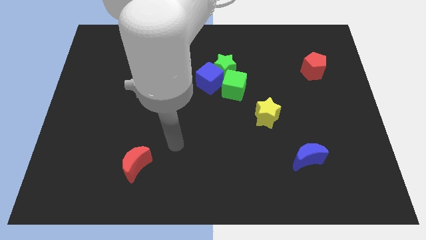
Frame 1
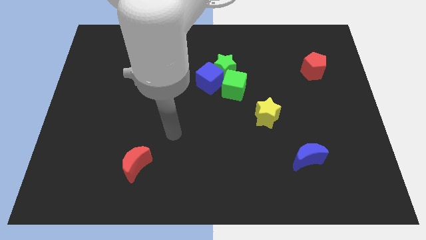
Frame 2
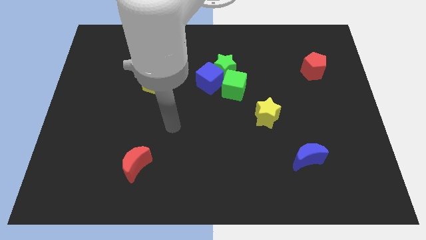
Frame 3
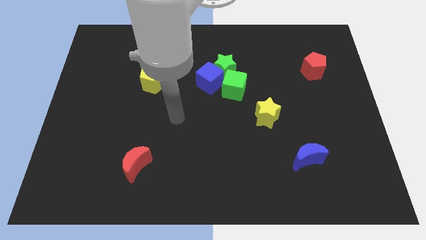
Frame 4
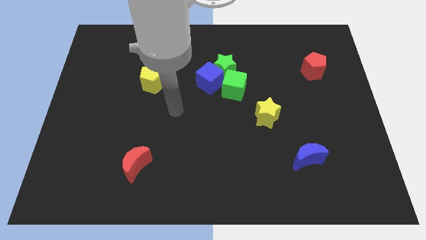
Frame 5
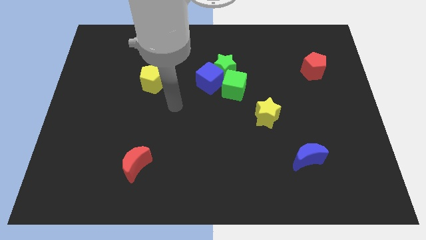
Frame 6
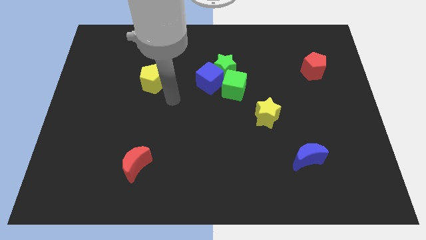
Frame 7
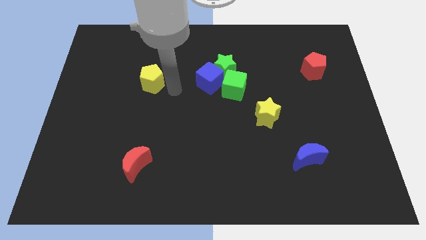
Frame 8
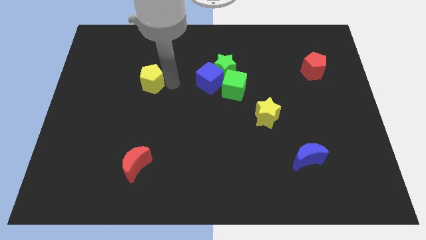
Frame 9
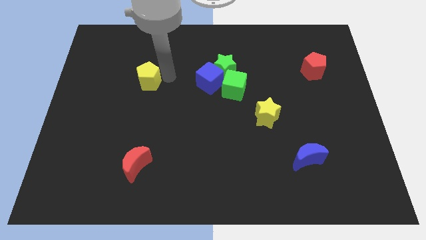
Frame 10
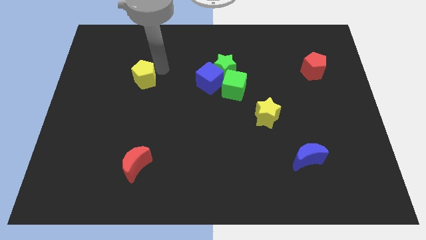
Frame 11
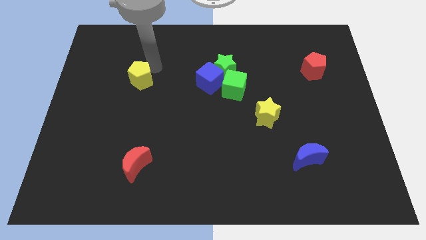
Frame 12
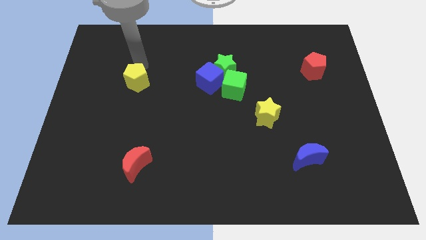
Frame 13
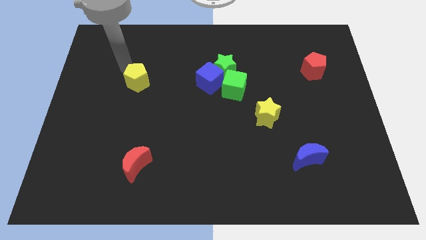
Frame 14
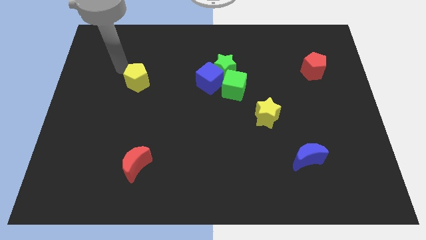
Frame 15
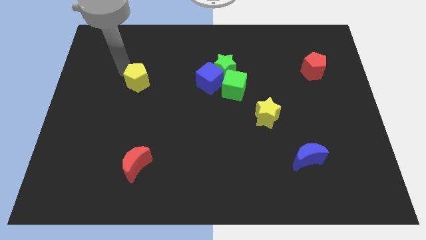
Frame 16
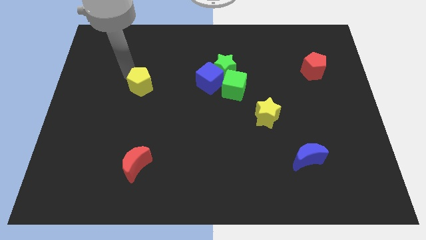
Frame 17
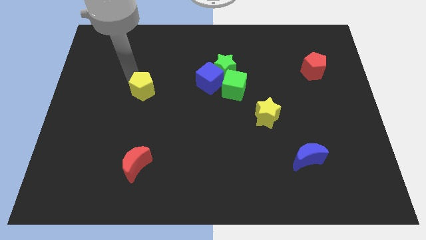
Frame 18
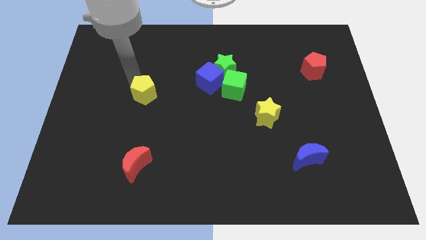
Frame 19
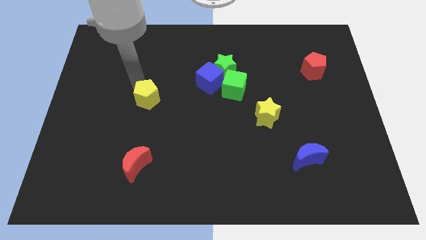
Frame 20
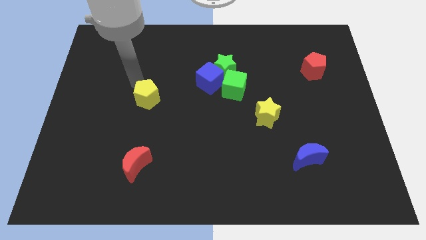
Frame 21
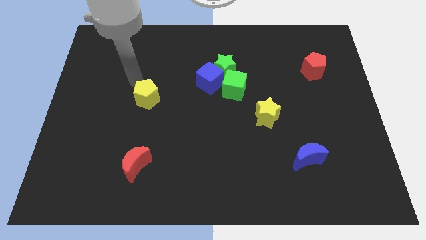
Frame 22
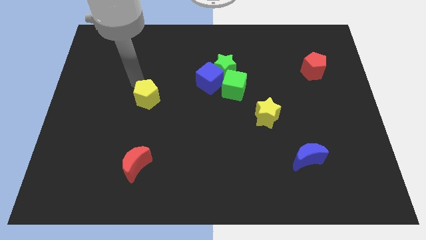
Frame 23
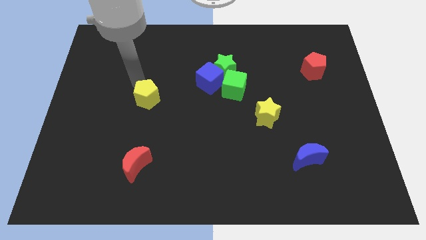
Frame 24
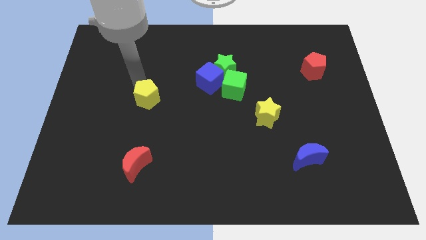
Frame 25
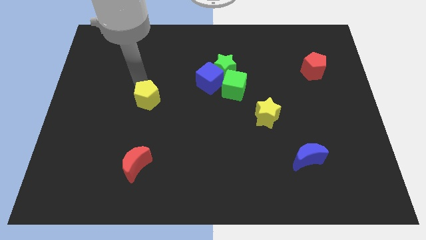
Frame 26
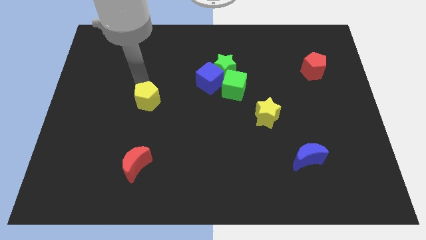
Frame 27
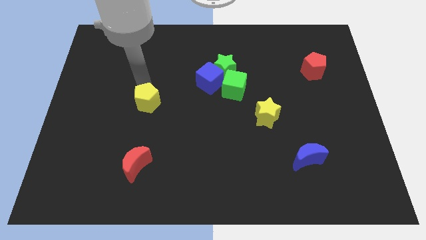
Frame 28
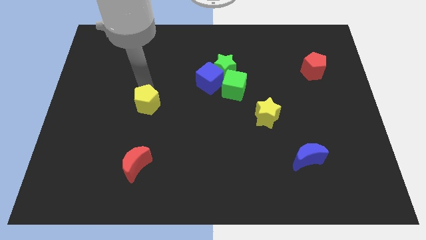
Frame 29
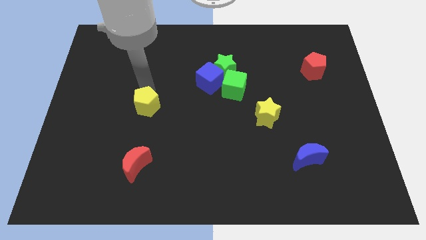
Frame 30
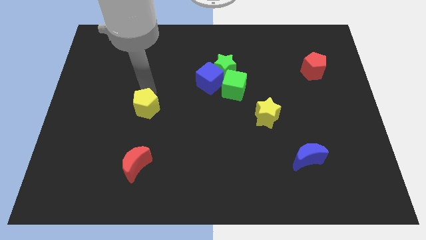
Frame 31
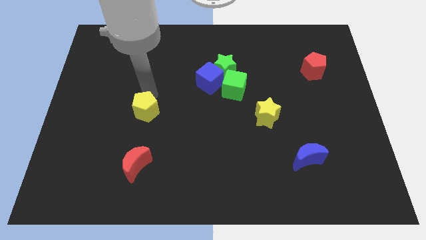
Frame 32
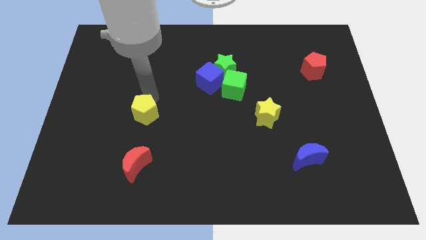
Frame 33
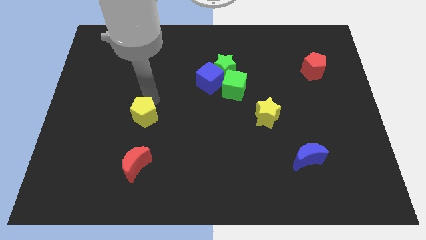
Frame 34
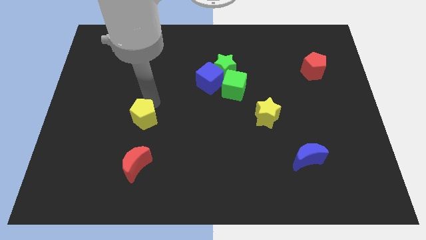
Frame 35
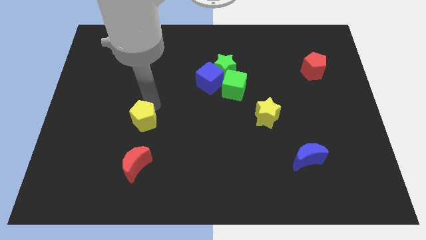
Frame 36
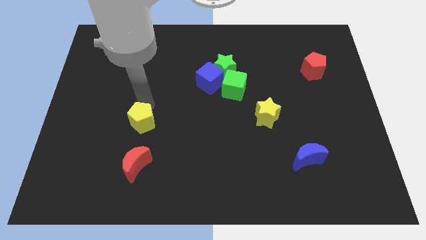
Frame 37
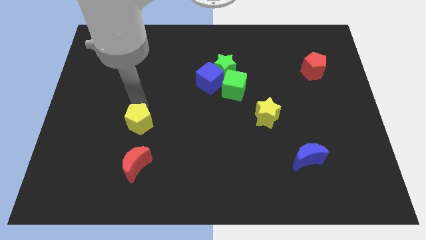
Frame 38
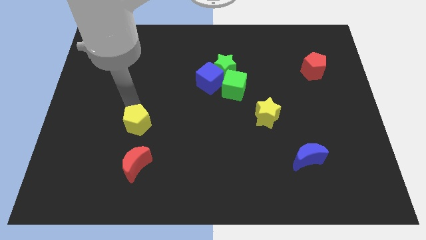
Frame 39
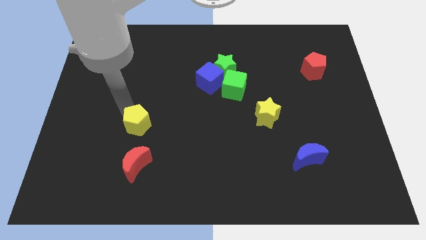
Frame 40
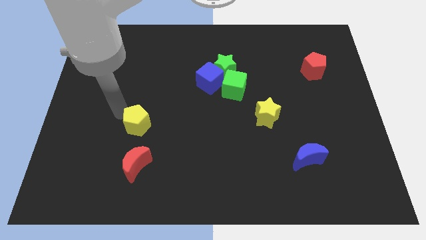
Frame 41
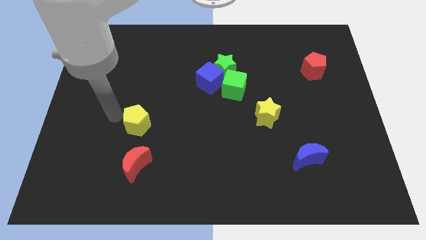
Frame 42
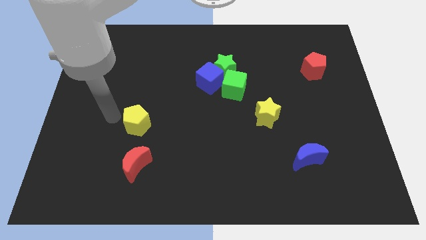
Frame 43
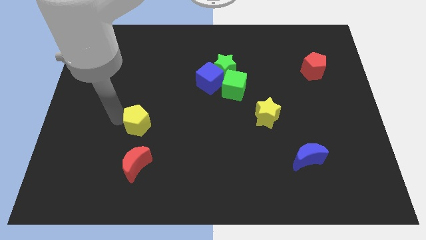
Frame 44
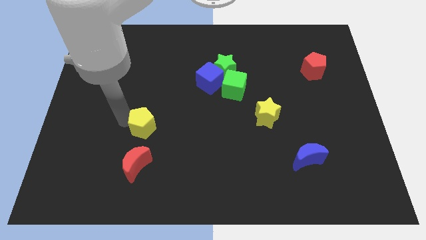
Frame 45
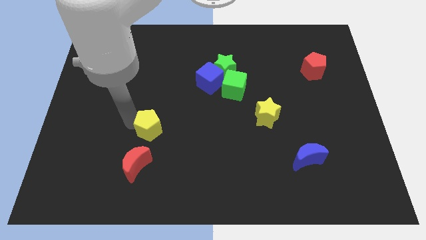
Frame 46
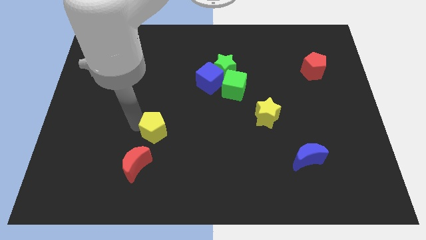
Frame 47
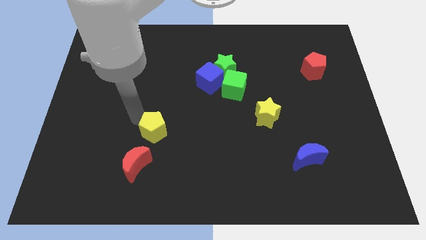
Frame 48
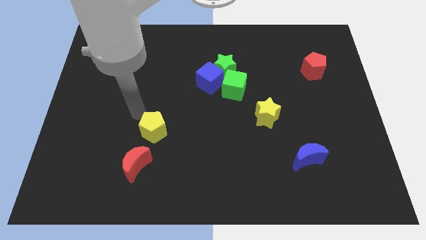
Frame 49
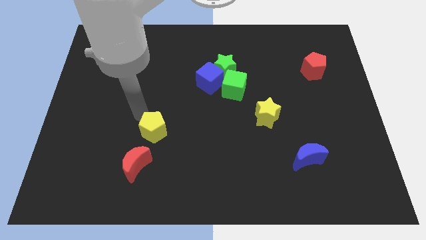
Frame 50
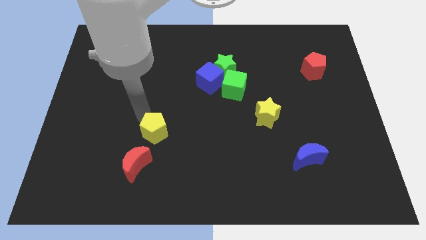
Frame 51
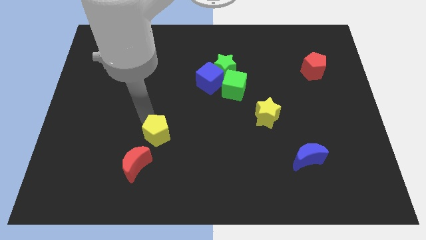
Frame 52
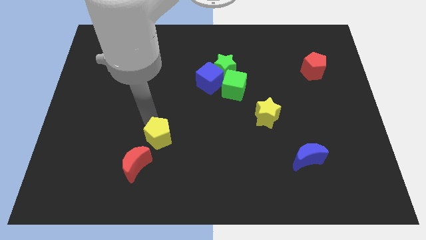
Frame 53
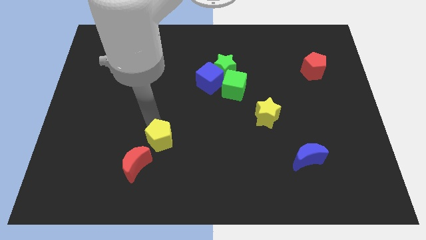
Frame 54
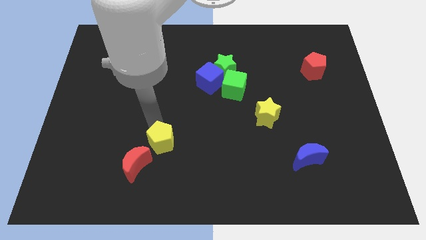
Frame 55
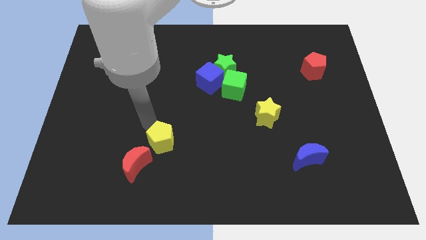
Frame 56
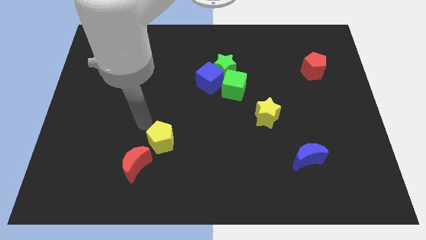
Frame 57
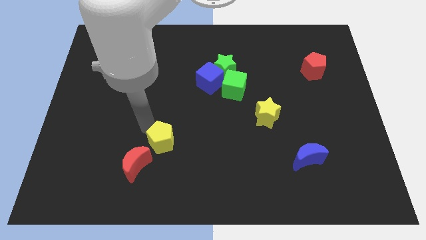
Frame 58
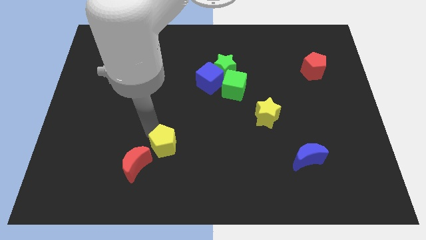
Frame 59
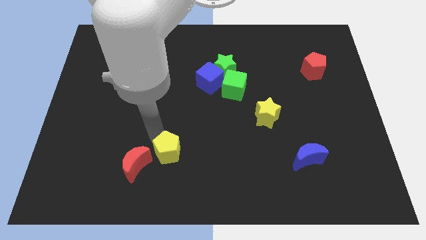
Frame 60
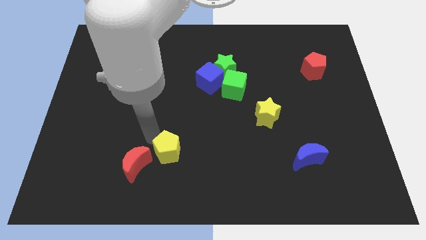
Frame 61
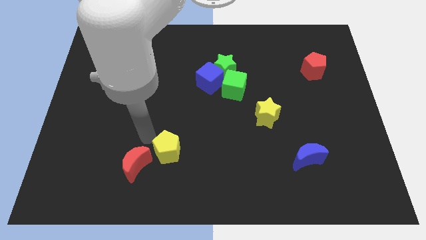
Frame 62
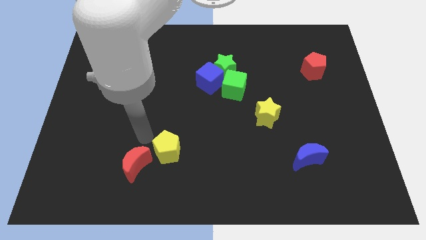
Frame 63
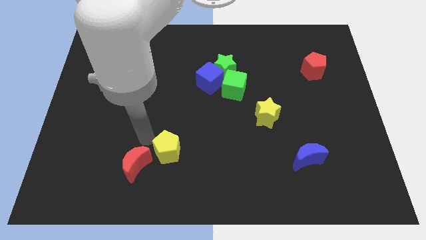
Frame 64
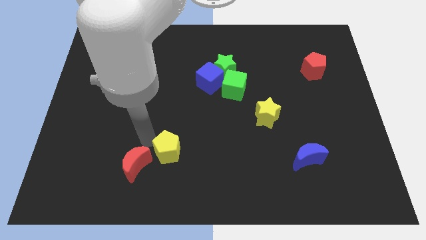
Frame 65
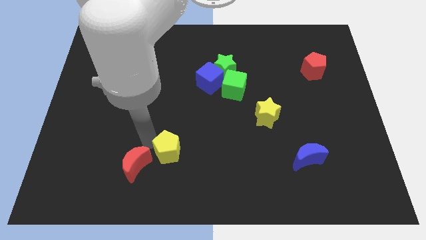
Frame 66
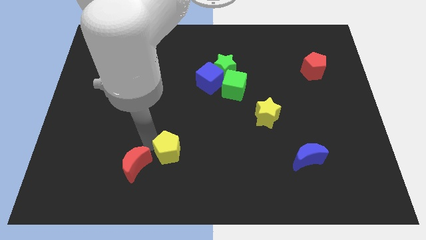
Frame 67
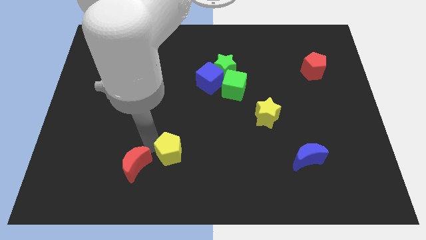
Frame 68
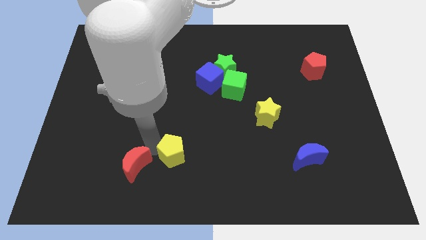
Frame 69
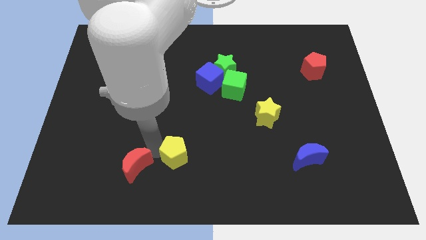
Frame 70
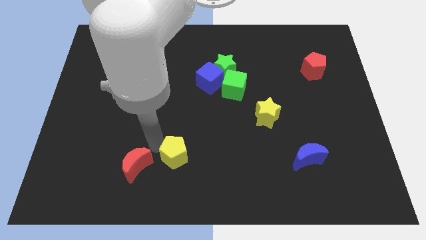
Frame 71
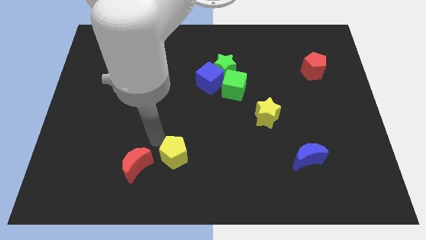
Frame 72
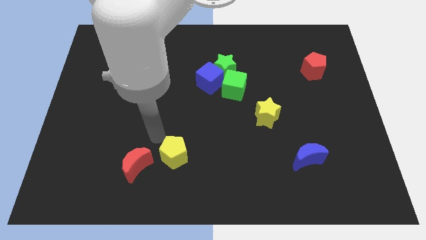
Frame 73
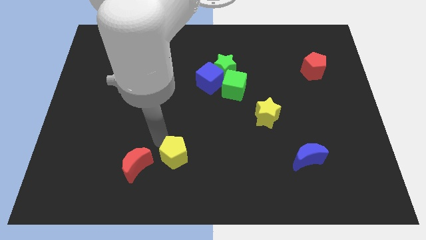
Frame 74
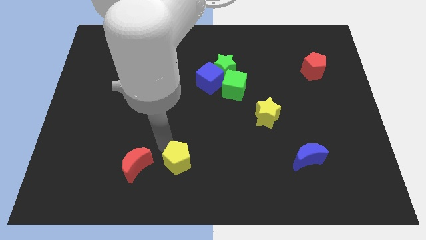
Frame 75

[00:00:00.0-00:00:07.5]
slide the yellow pentagon to the bottom side

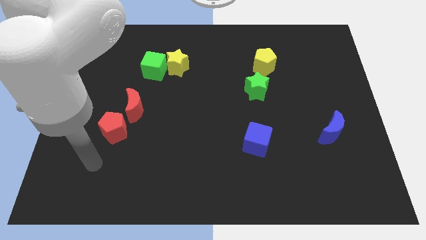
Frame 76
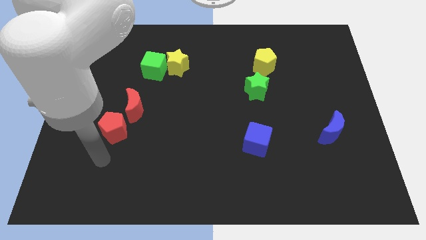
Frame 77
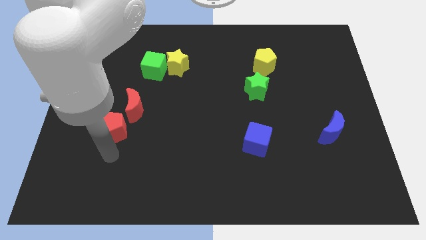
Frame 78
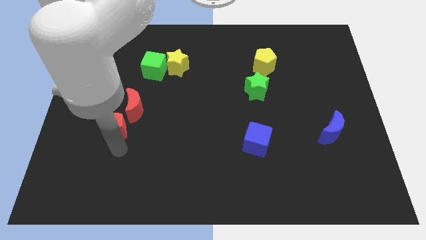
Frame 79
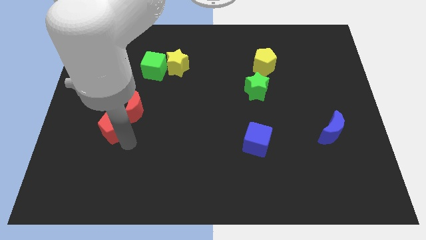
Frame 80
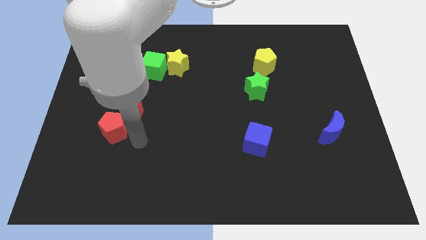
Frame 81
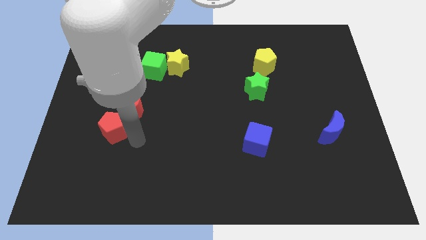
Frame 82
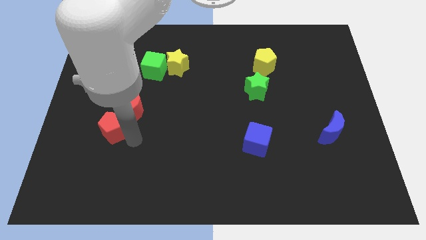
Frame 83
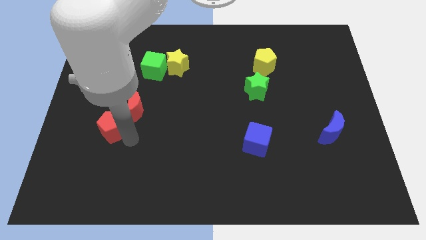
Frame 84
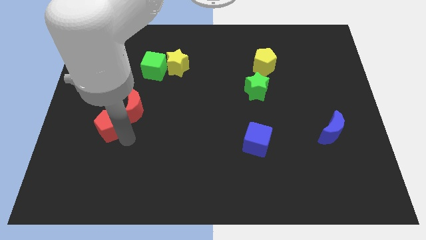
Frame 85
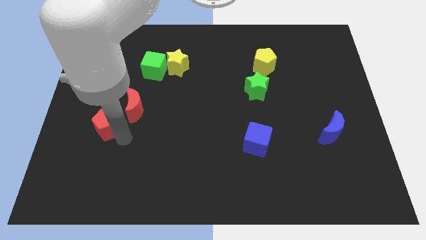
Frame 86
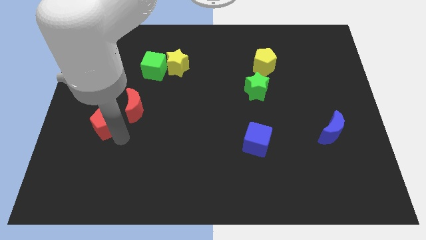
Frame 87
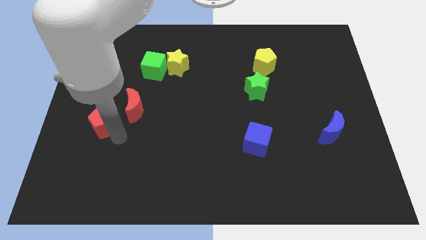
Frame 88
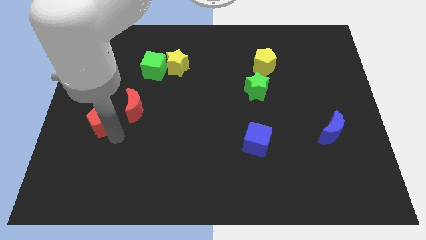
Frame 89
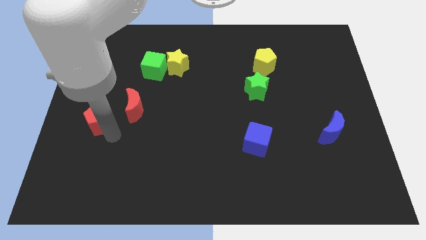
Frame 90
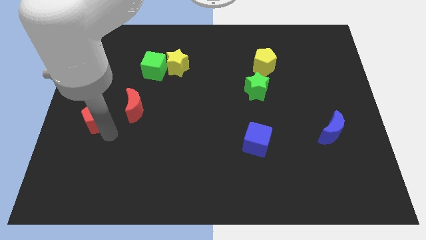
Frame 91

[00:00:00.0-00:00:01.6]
slide the red pentagon to the left side of the board
